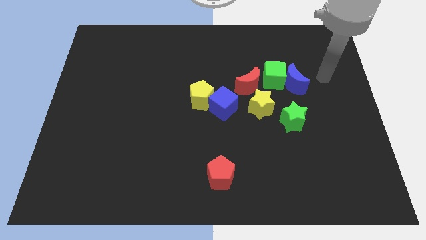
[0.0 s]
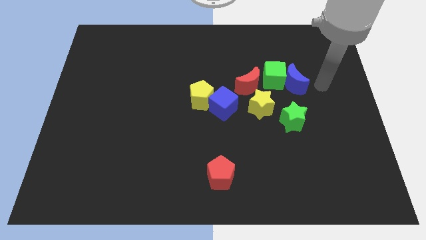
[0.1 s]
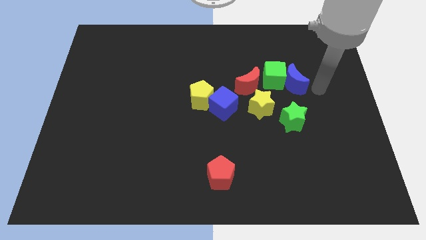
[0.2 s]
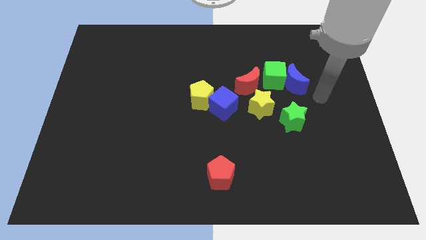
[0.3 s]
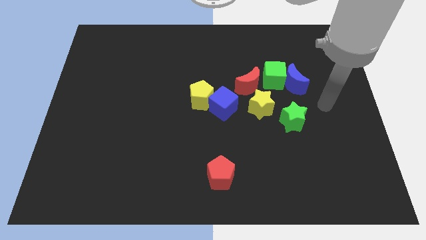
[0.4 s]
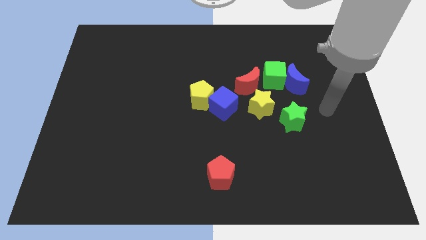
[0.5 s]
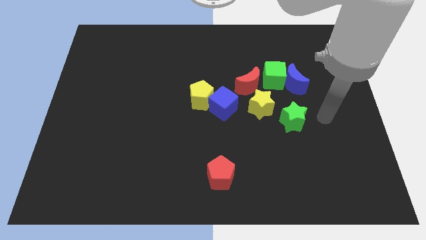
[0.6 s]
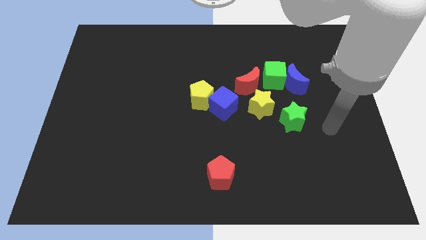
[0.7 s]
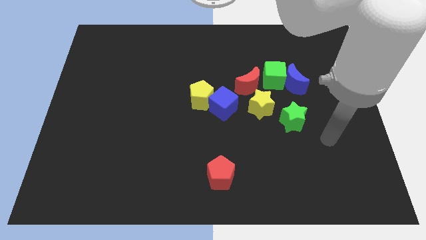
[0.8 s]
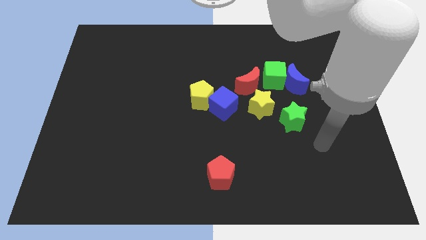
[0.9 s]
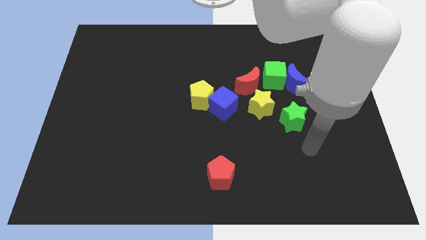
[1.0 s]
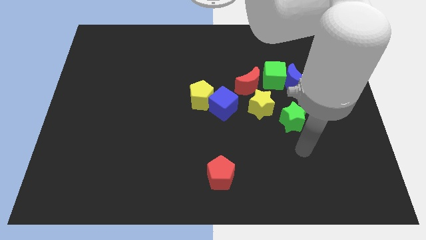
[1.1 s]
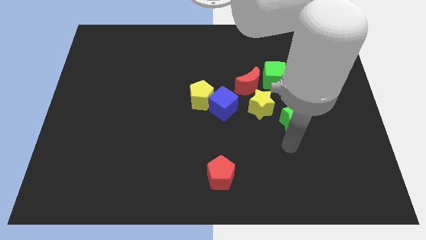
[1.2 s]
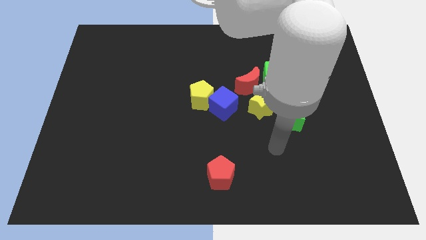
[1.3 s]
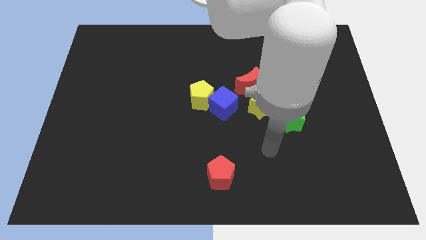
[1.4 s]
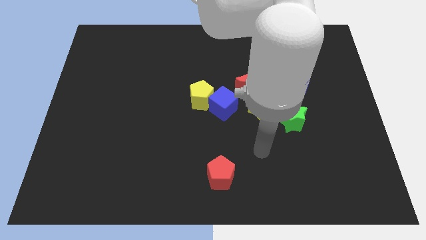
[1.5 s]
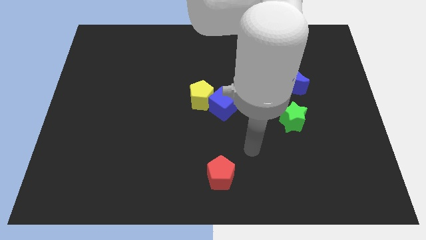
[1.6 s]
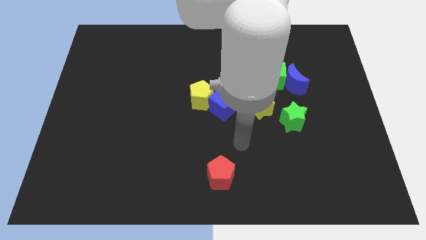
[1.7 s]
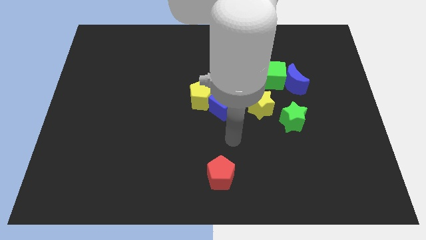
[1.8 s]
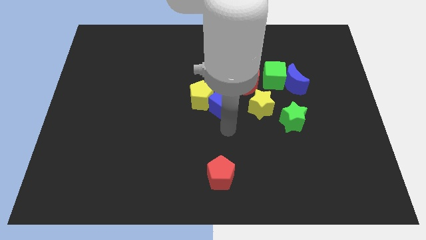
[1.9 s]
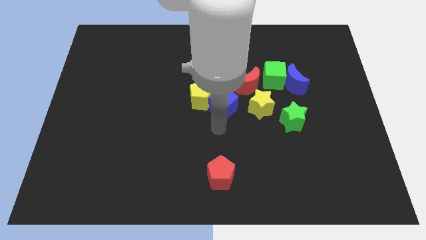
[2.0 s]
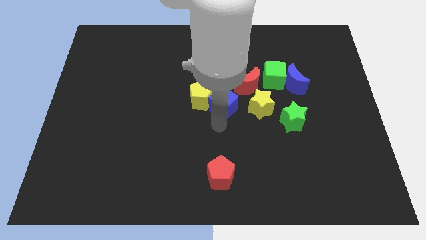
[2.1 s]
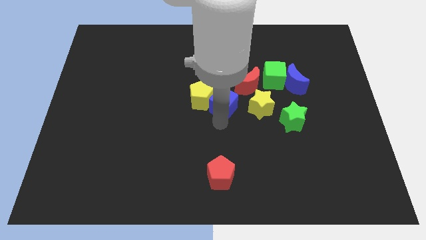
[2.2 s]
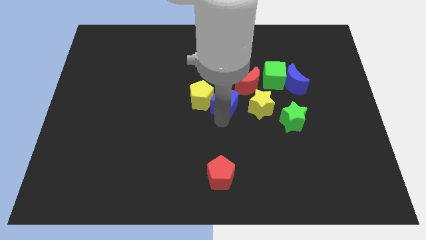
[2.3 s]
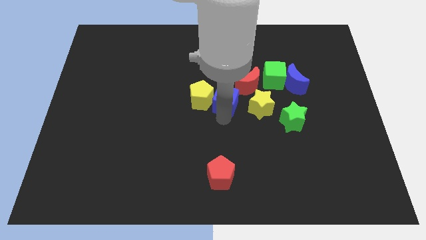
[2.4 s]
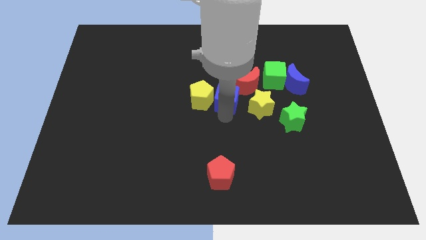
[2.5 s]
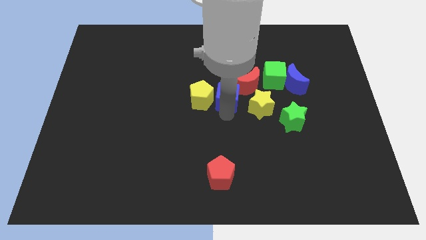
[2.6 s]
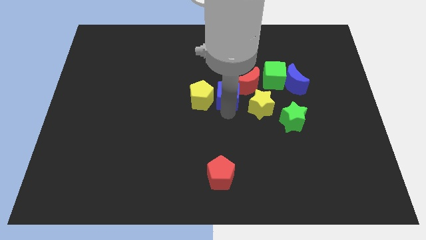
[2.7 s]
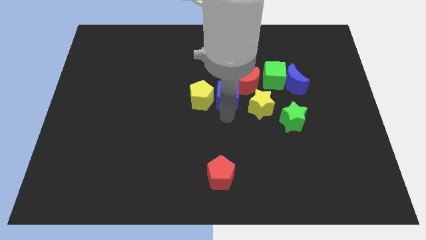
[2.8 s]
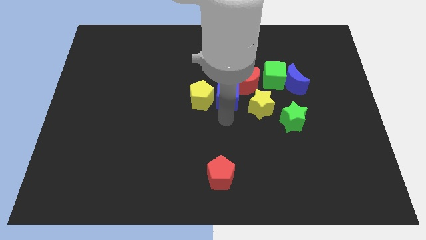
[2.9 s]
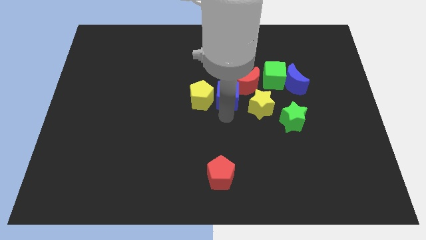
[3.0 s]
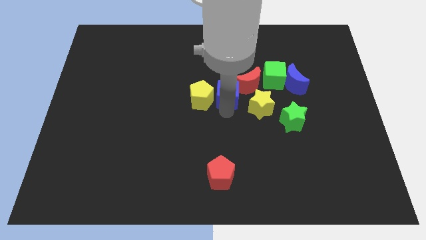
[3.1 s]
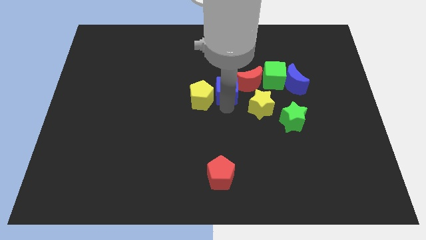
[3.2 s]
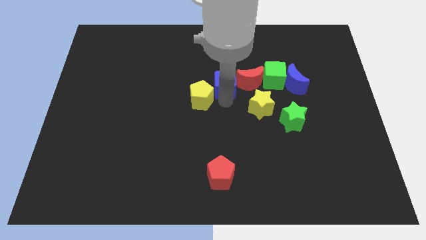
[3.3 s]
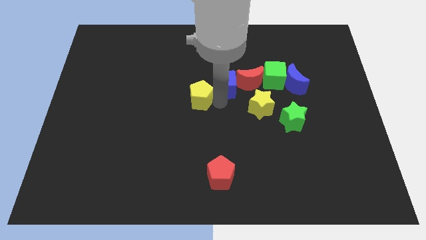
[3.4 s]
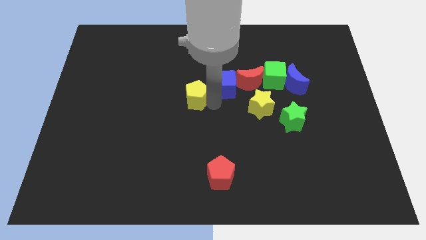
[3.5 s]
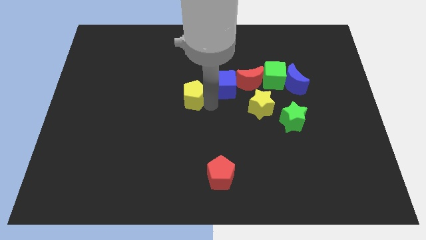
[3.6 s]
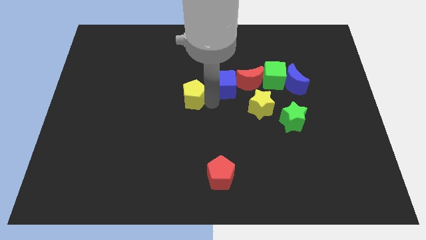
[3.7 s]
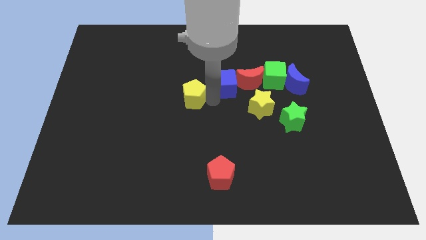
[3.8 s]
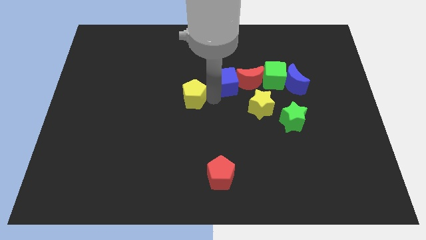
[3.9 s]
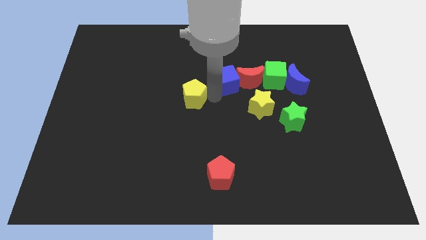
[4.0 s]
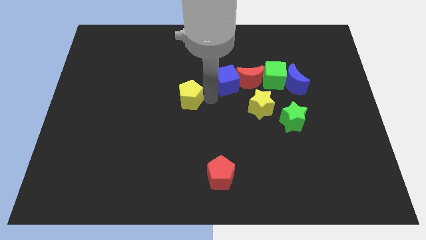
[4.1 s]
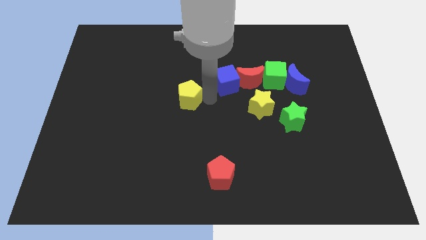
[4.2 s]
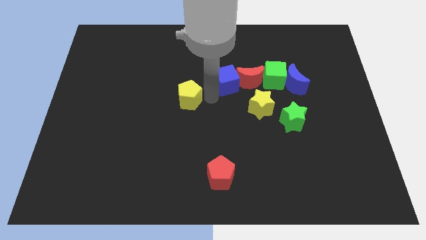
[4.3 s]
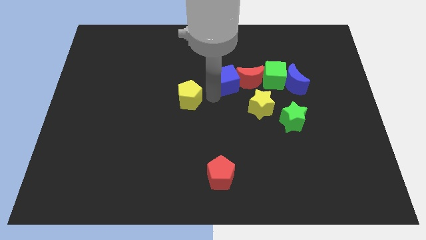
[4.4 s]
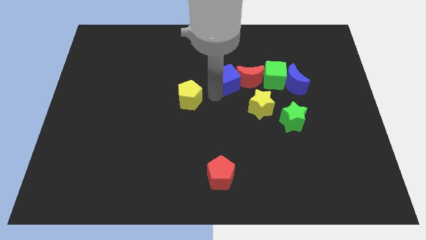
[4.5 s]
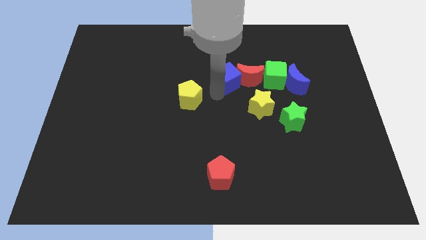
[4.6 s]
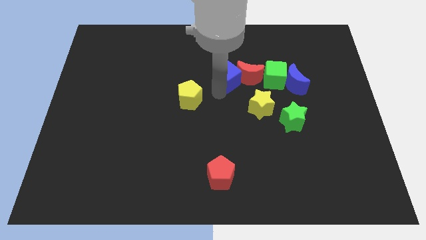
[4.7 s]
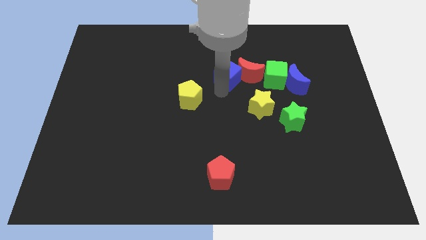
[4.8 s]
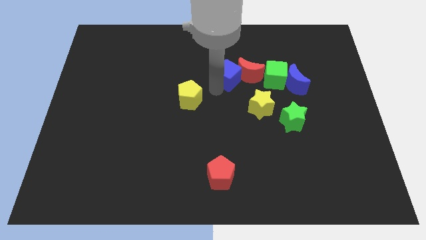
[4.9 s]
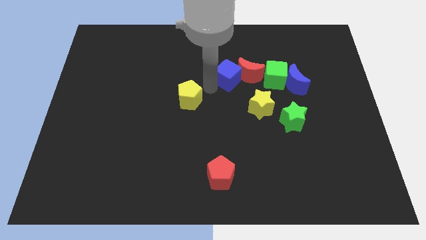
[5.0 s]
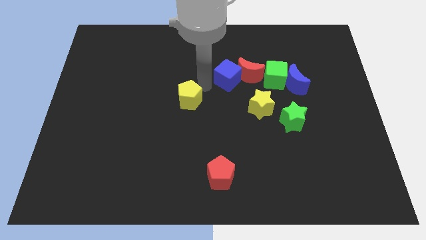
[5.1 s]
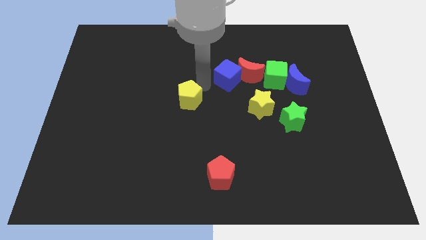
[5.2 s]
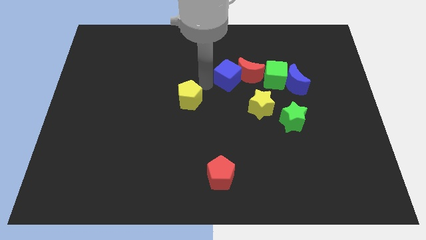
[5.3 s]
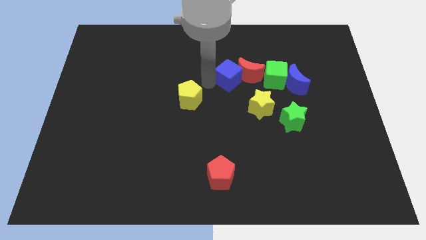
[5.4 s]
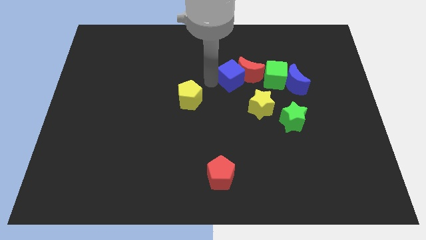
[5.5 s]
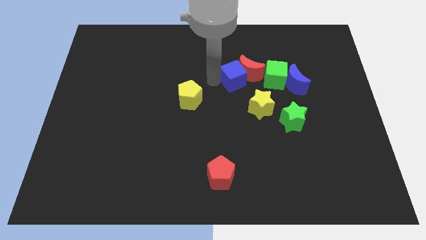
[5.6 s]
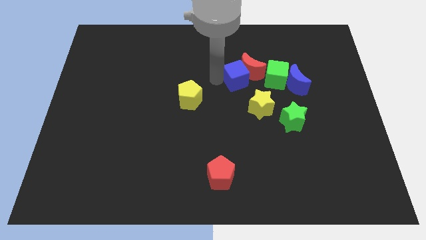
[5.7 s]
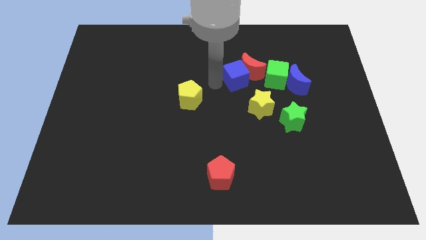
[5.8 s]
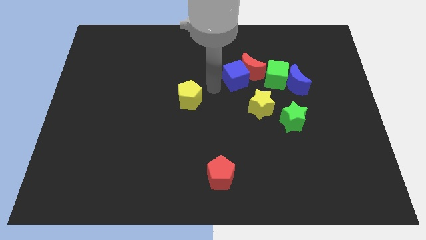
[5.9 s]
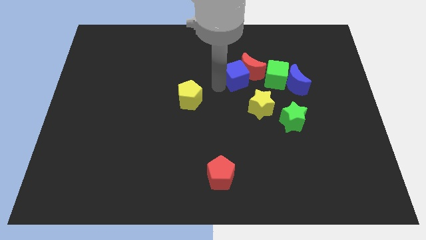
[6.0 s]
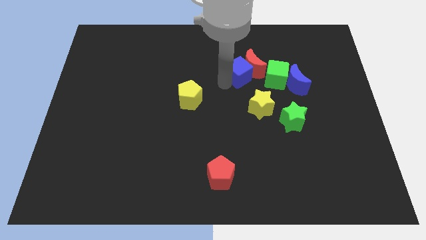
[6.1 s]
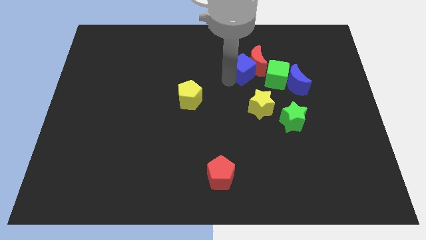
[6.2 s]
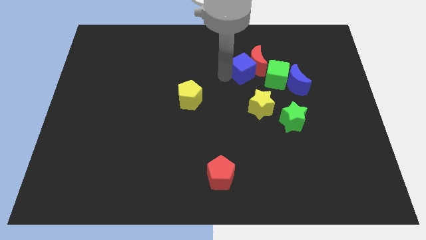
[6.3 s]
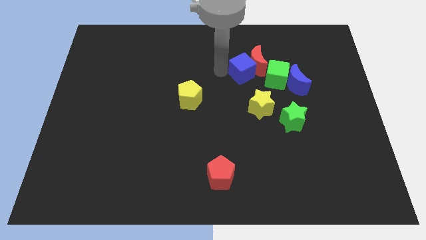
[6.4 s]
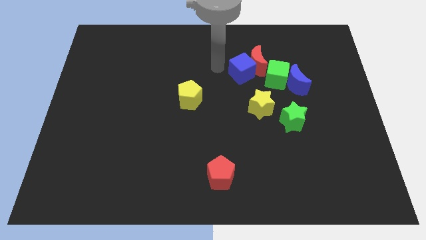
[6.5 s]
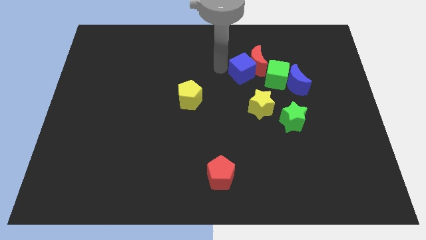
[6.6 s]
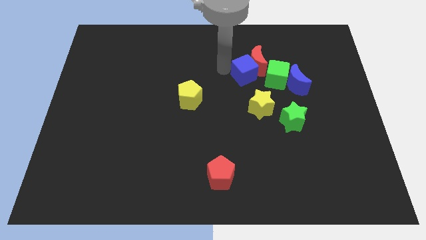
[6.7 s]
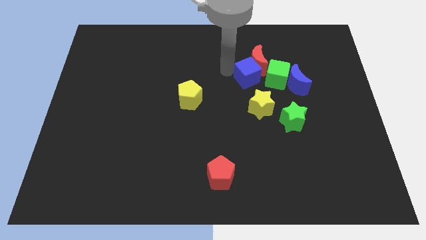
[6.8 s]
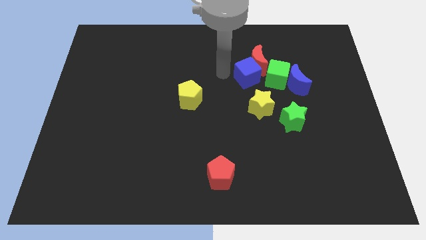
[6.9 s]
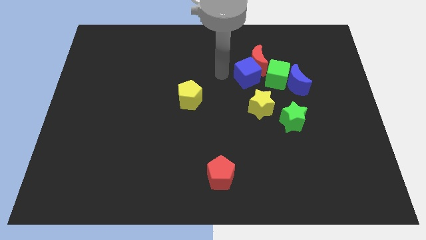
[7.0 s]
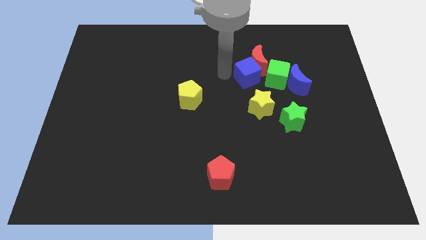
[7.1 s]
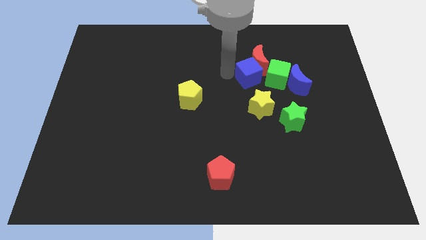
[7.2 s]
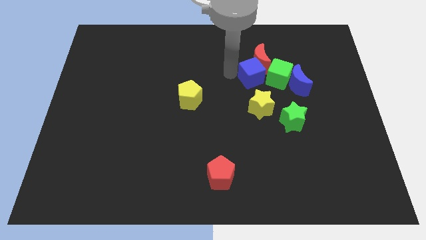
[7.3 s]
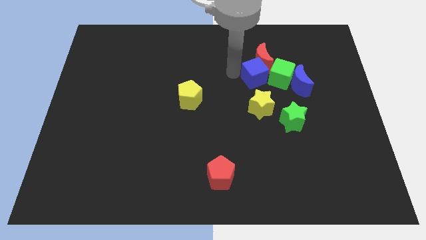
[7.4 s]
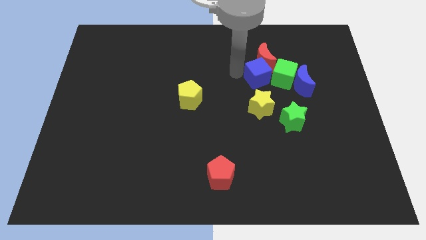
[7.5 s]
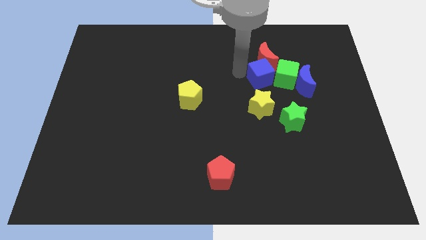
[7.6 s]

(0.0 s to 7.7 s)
slide the blue cube to the green cube

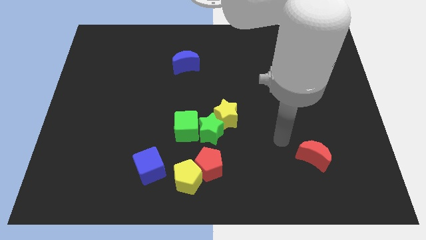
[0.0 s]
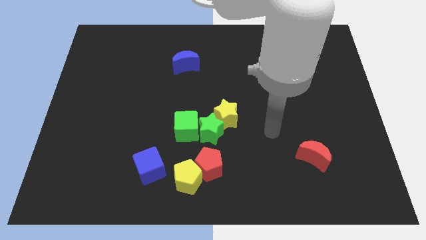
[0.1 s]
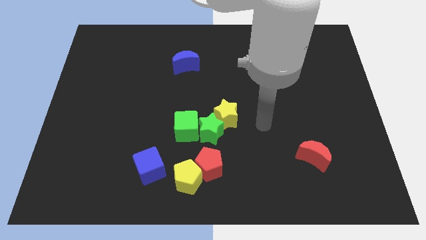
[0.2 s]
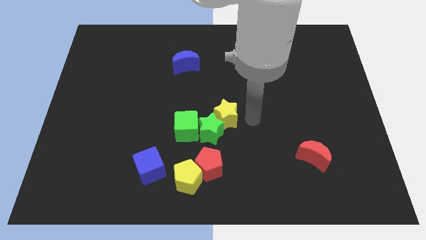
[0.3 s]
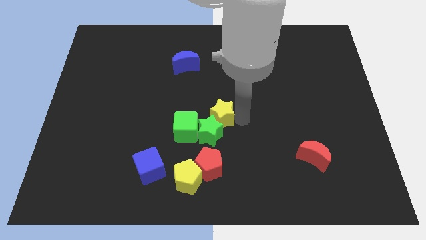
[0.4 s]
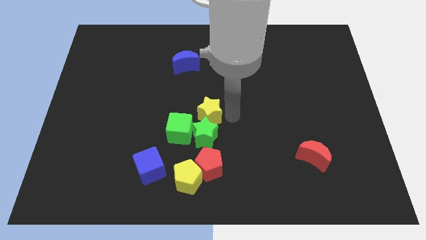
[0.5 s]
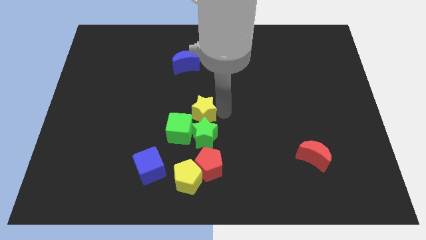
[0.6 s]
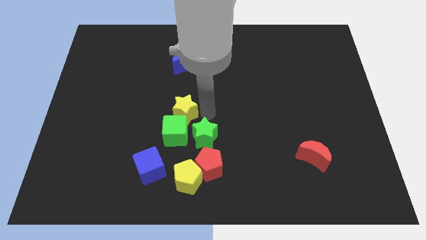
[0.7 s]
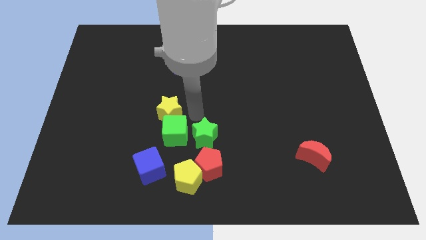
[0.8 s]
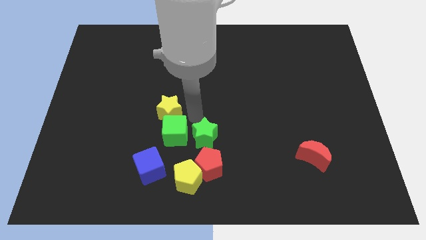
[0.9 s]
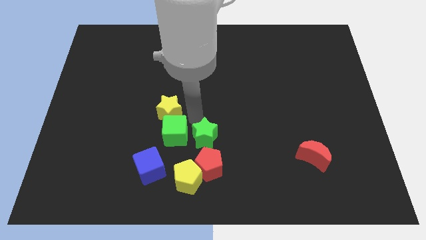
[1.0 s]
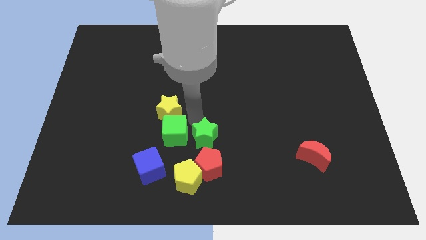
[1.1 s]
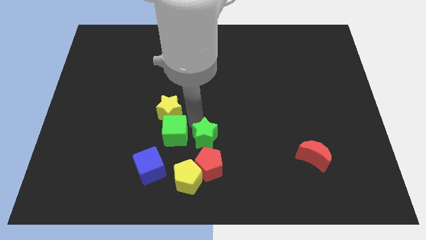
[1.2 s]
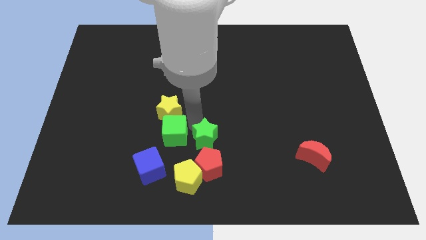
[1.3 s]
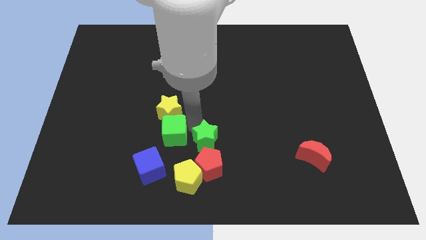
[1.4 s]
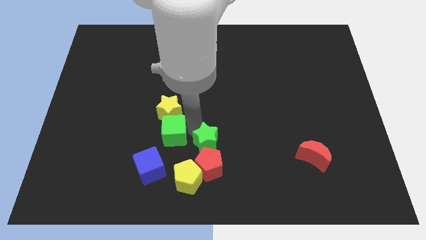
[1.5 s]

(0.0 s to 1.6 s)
move the green star towards the red pentagon
